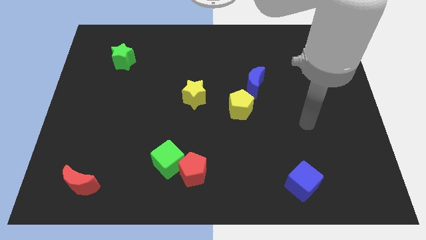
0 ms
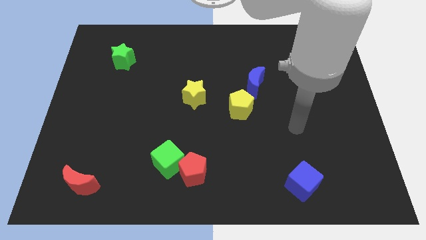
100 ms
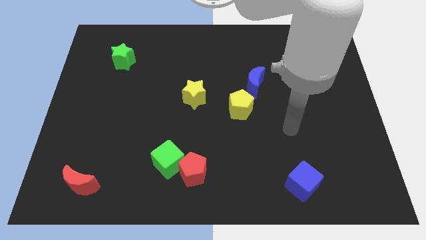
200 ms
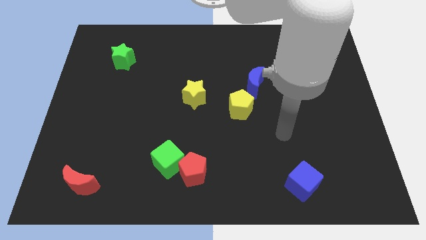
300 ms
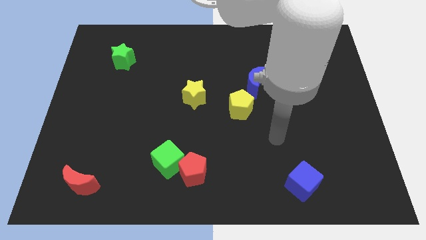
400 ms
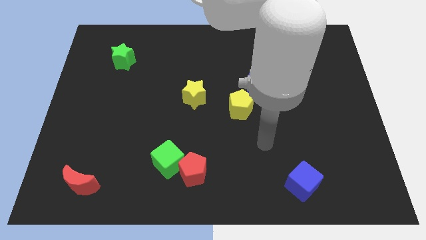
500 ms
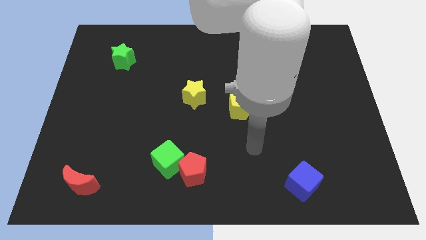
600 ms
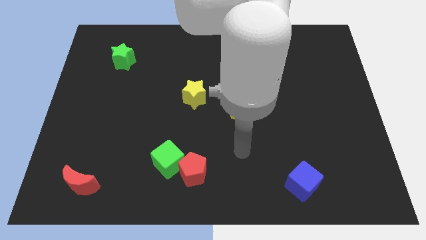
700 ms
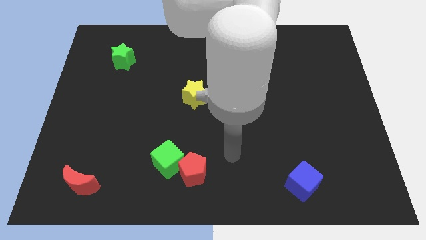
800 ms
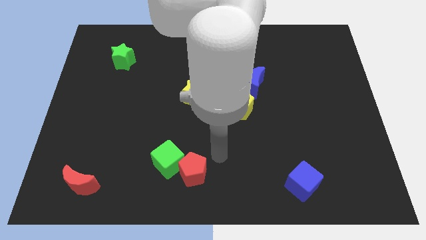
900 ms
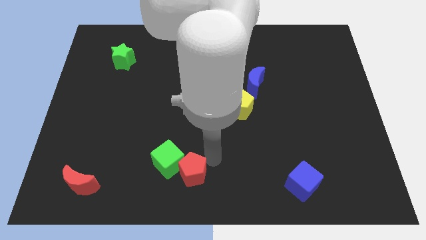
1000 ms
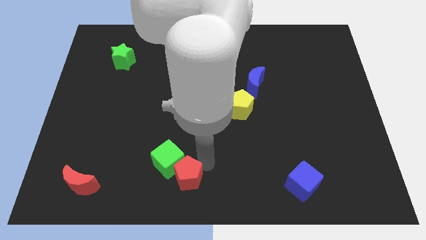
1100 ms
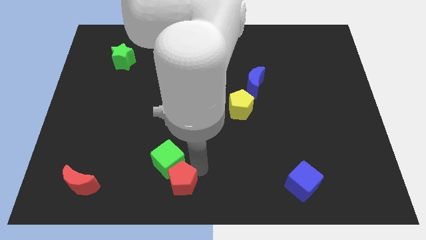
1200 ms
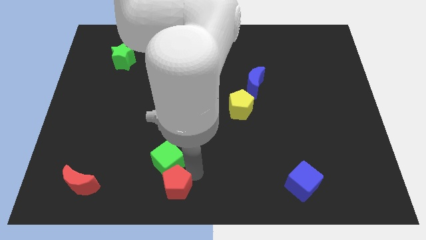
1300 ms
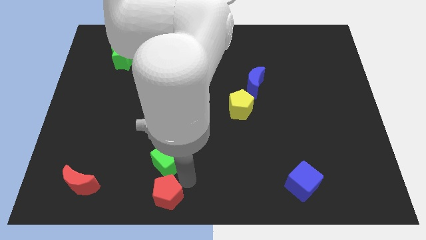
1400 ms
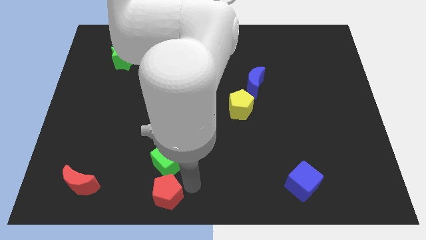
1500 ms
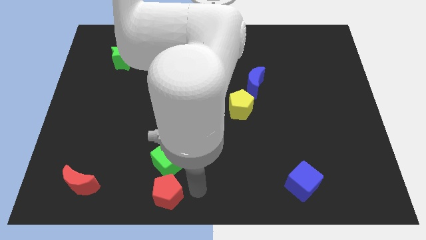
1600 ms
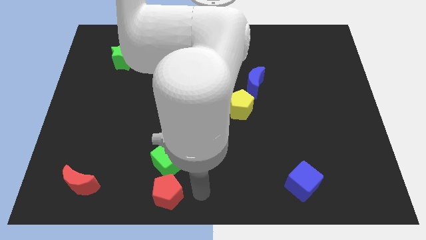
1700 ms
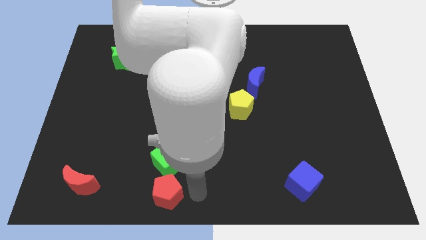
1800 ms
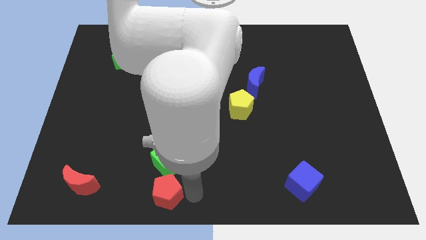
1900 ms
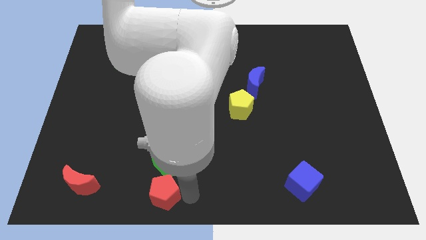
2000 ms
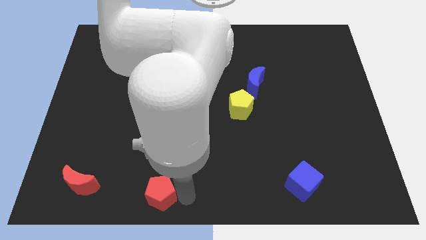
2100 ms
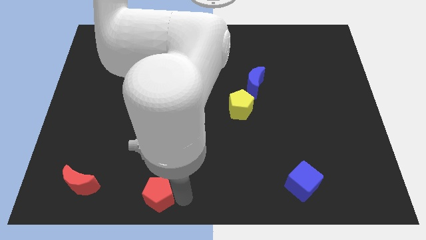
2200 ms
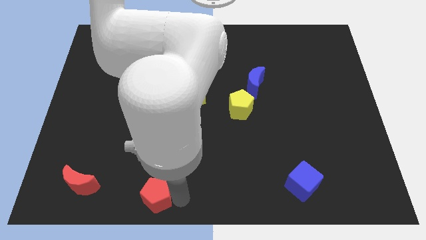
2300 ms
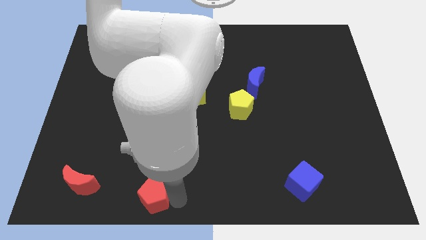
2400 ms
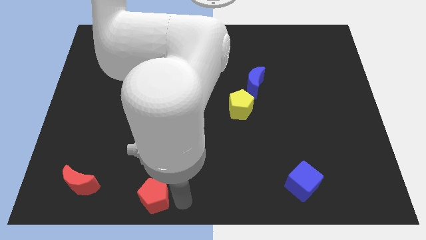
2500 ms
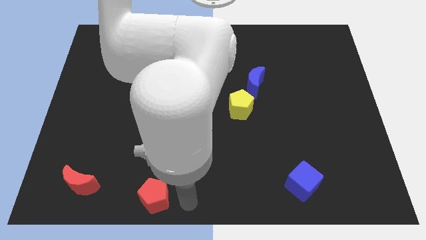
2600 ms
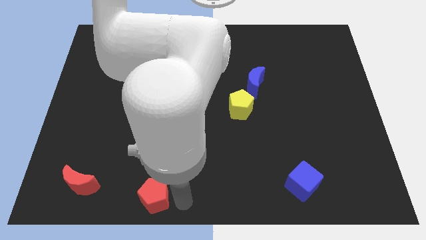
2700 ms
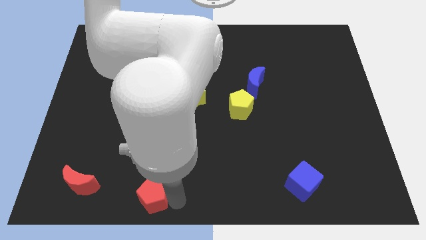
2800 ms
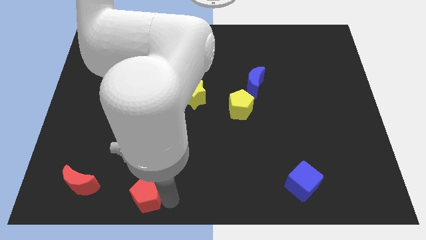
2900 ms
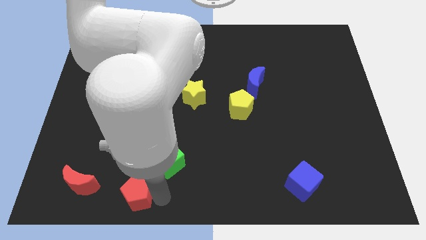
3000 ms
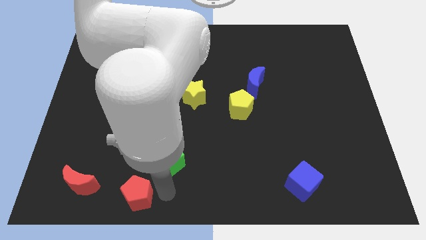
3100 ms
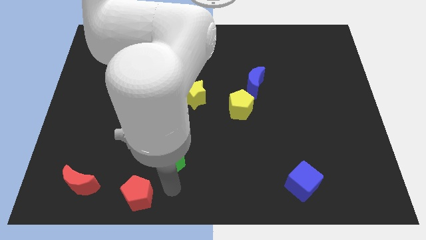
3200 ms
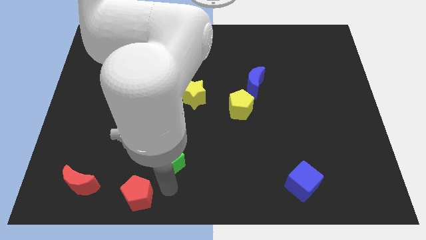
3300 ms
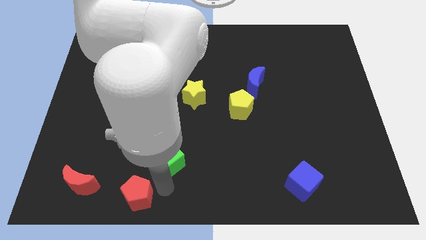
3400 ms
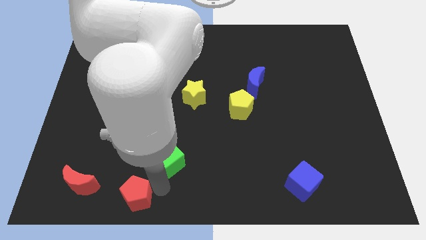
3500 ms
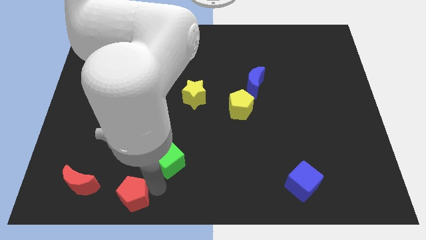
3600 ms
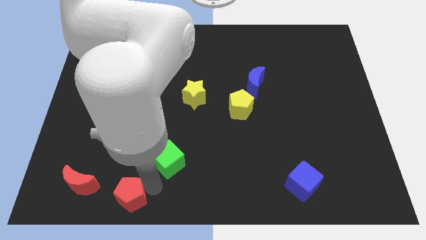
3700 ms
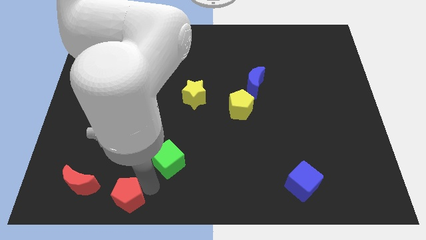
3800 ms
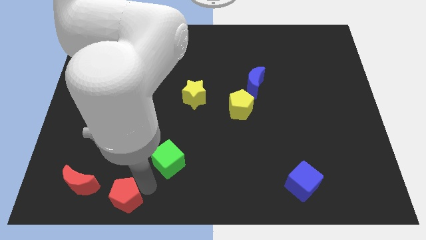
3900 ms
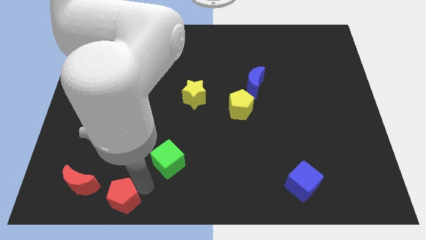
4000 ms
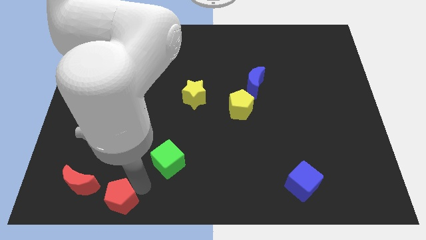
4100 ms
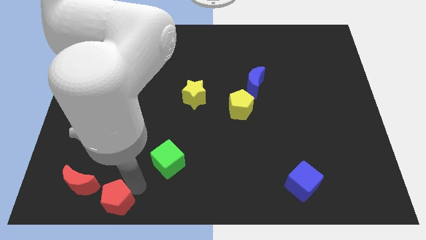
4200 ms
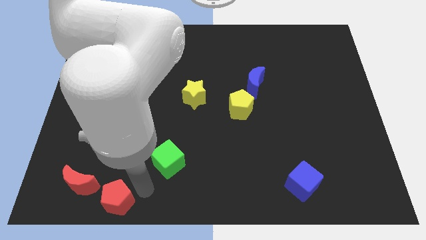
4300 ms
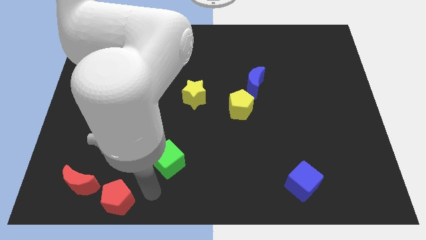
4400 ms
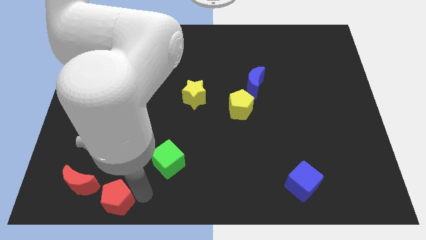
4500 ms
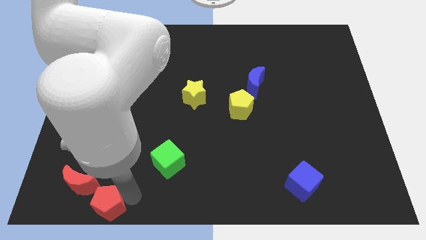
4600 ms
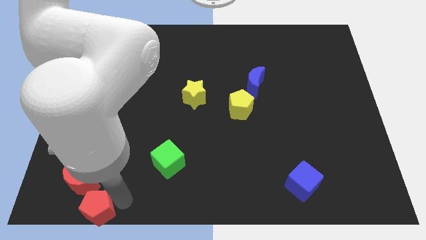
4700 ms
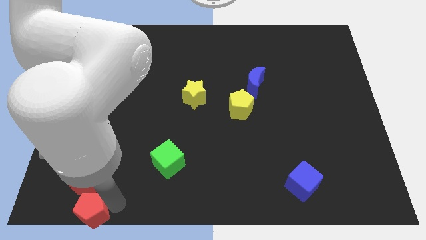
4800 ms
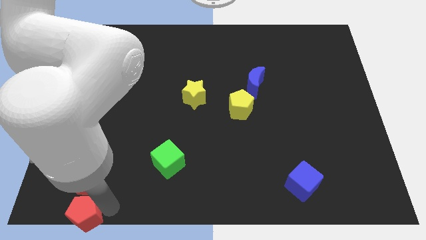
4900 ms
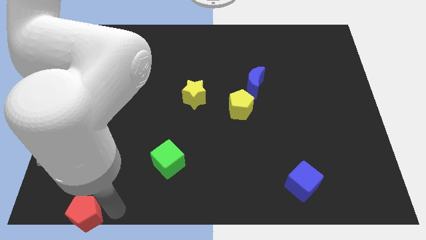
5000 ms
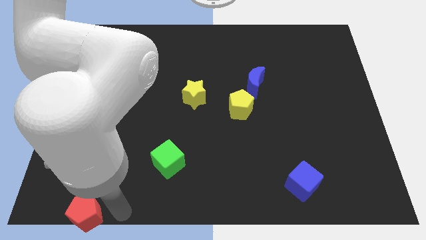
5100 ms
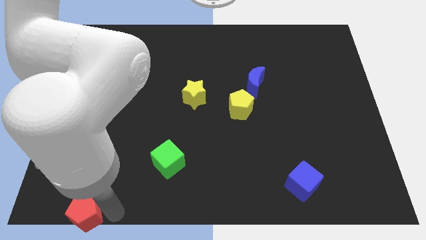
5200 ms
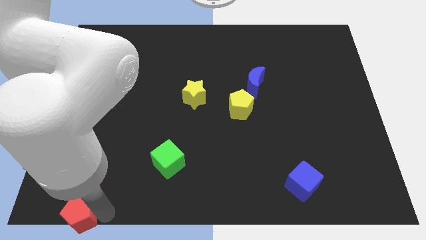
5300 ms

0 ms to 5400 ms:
put the red pentagon to the bottom left

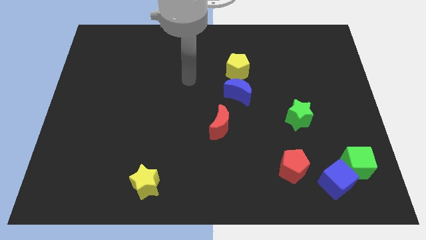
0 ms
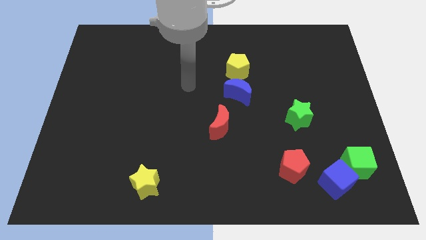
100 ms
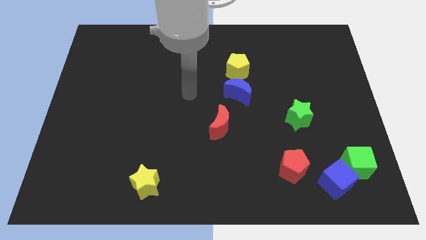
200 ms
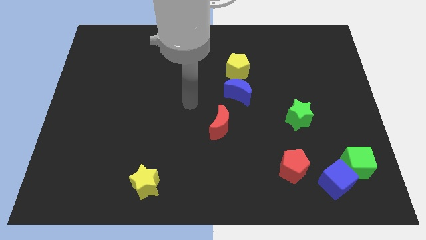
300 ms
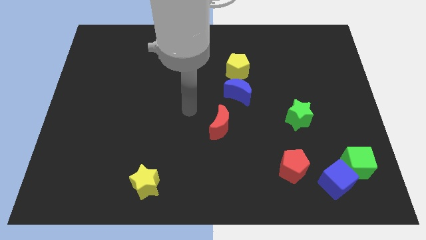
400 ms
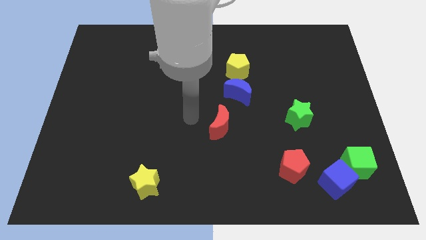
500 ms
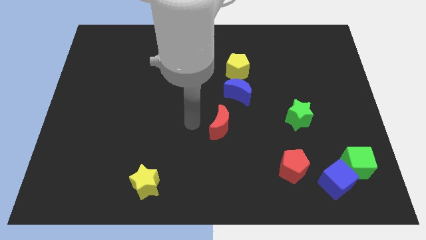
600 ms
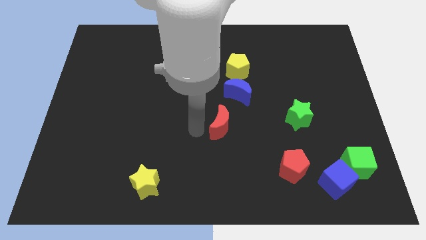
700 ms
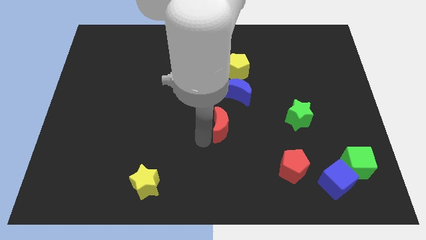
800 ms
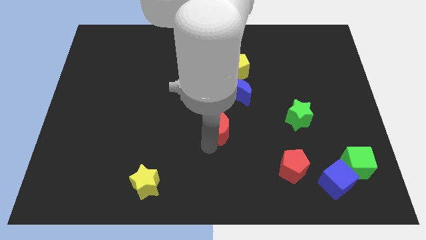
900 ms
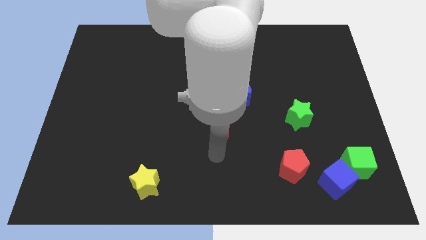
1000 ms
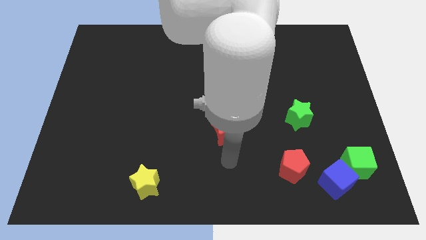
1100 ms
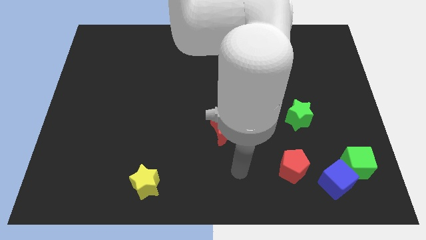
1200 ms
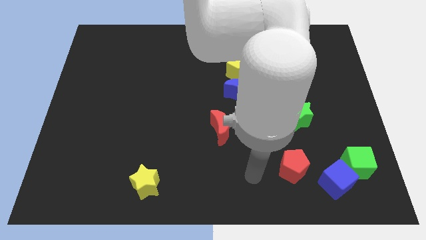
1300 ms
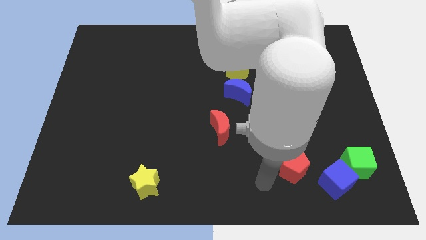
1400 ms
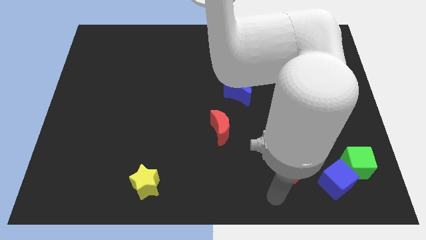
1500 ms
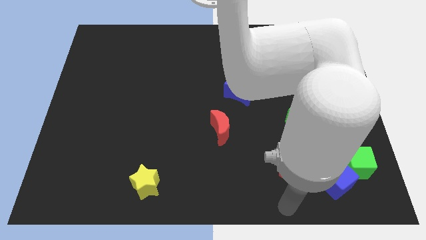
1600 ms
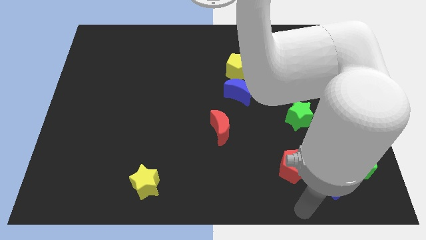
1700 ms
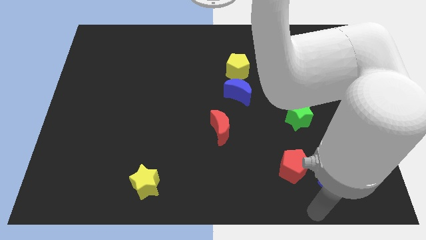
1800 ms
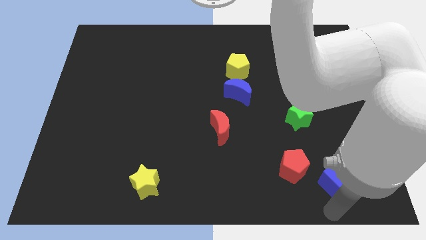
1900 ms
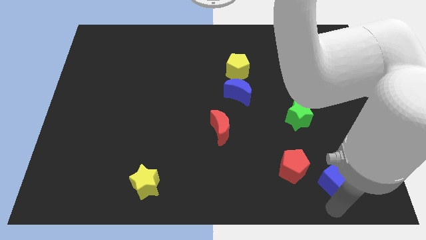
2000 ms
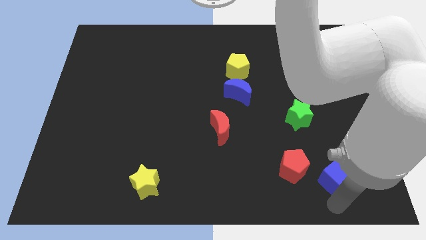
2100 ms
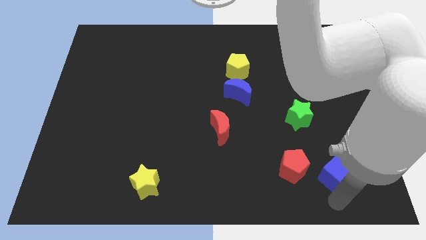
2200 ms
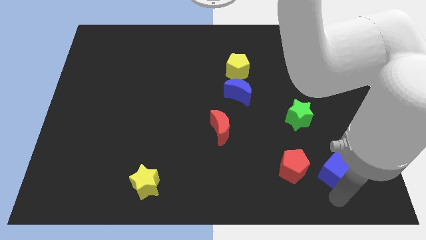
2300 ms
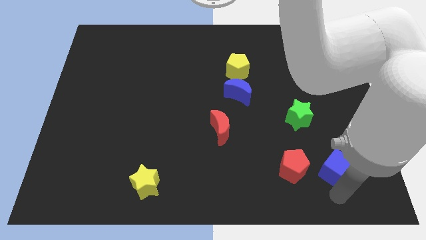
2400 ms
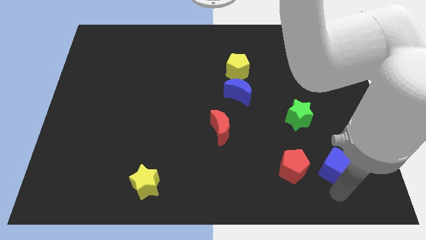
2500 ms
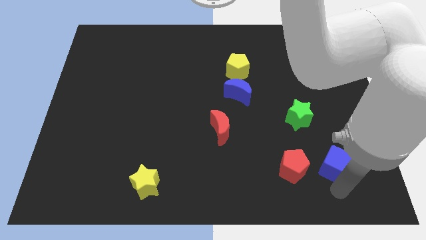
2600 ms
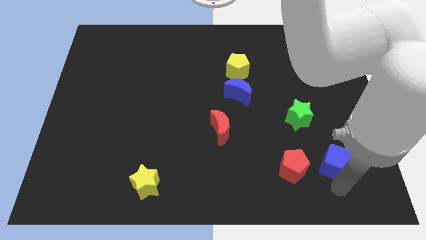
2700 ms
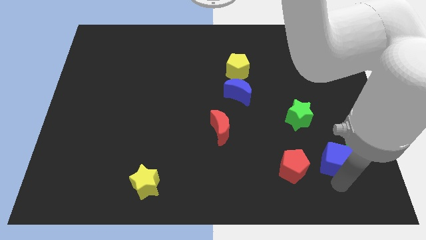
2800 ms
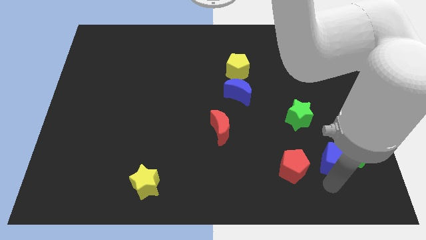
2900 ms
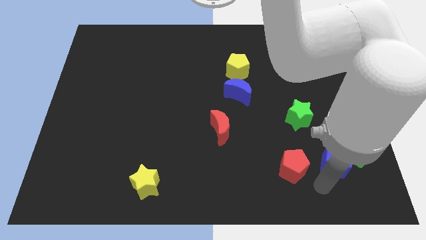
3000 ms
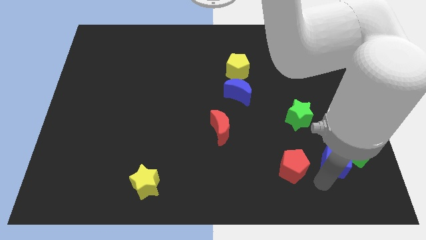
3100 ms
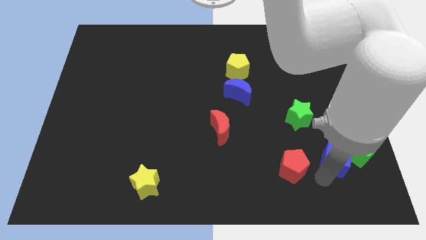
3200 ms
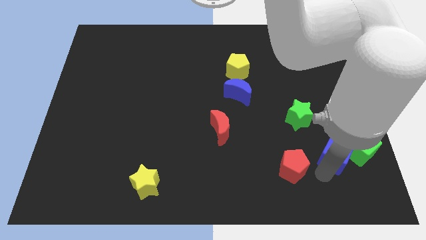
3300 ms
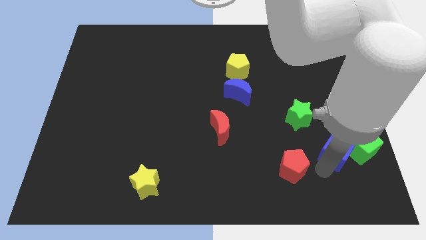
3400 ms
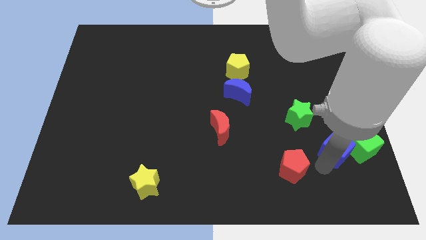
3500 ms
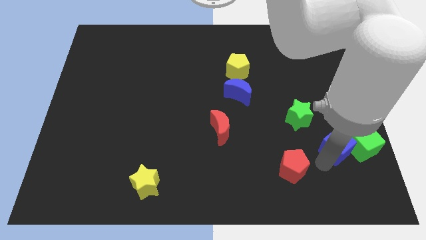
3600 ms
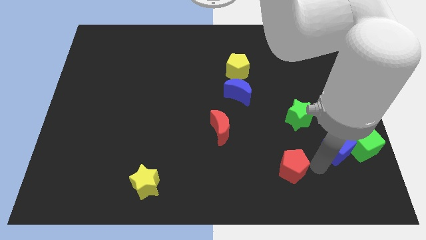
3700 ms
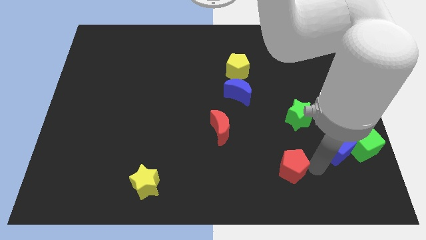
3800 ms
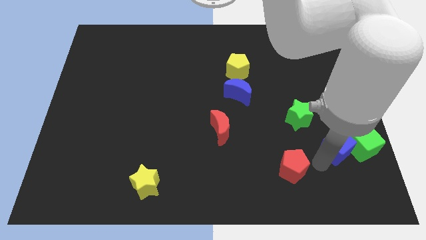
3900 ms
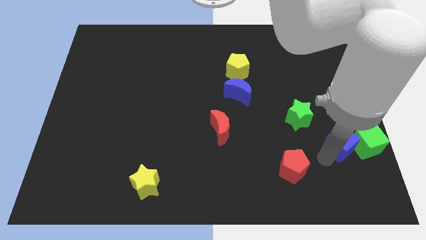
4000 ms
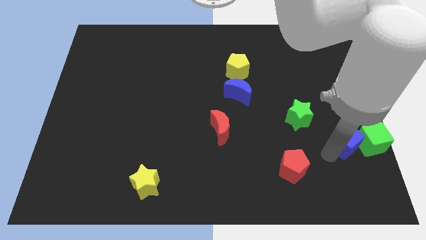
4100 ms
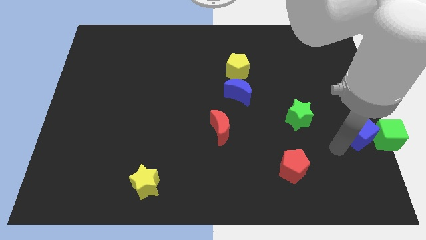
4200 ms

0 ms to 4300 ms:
push the blue cube to the right side of the board
